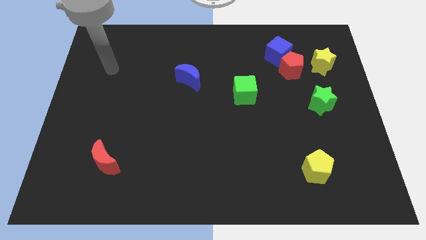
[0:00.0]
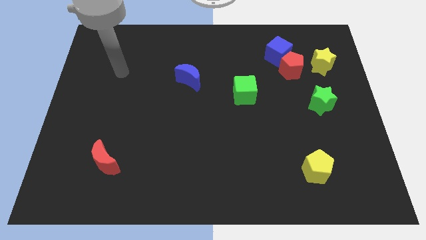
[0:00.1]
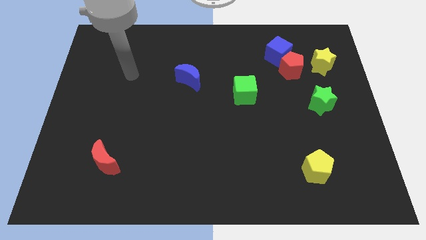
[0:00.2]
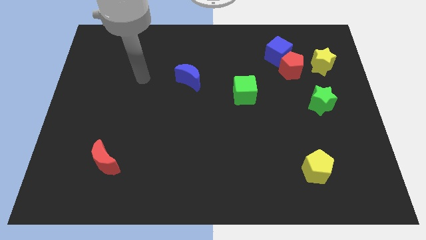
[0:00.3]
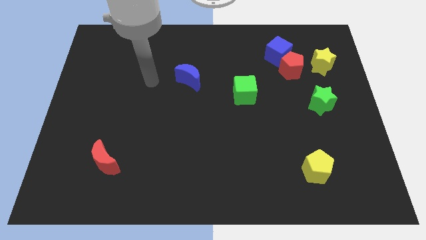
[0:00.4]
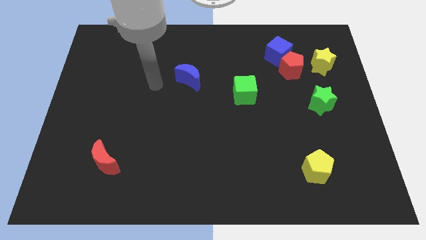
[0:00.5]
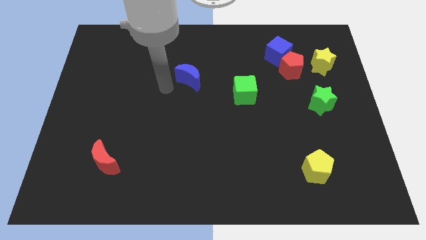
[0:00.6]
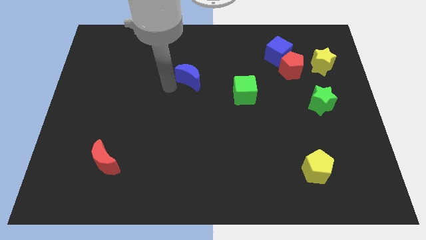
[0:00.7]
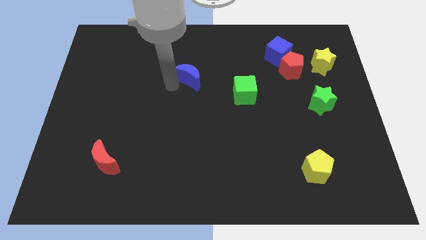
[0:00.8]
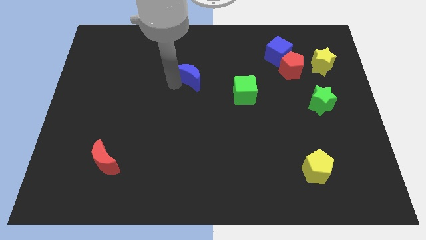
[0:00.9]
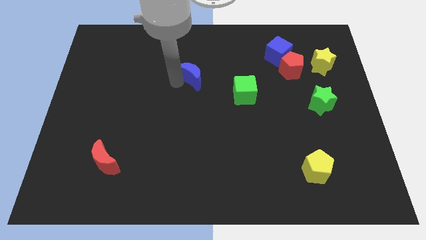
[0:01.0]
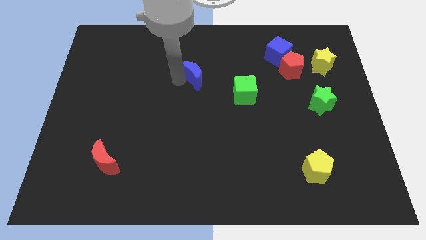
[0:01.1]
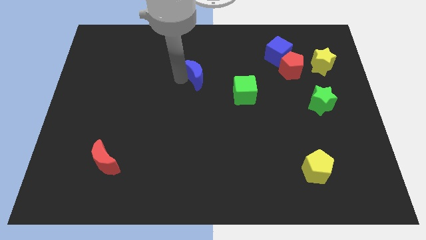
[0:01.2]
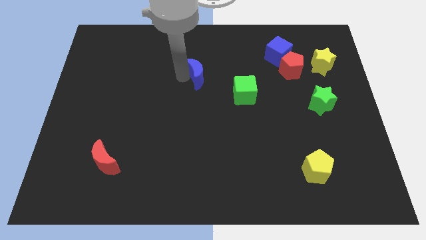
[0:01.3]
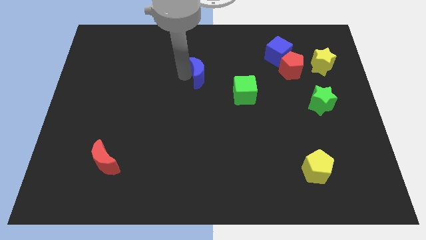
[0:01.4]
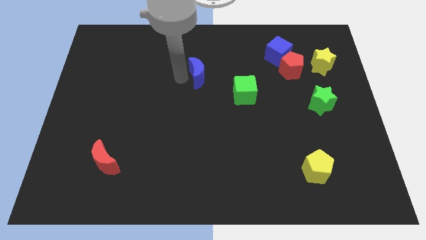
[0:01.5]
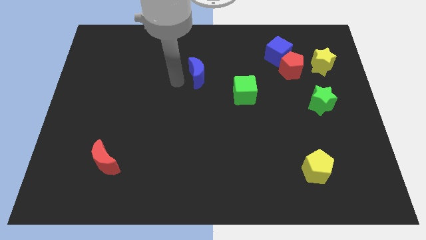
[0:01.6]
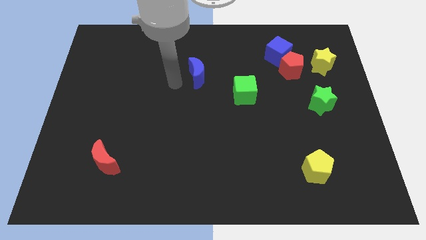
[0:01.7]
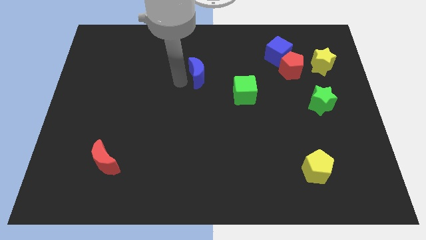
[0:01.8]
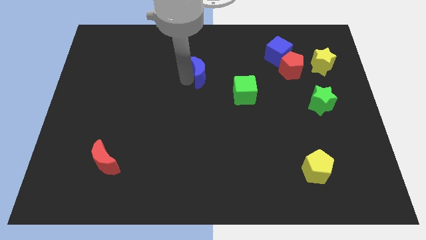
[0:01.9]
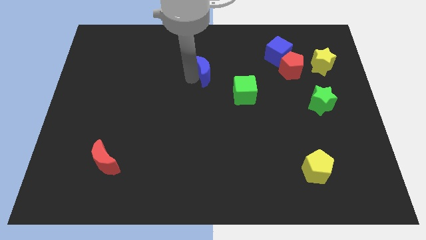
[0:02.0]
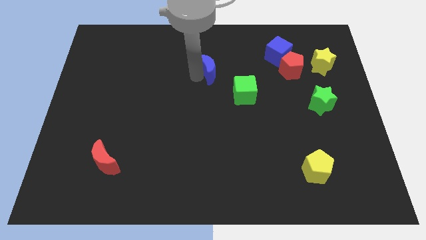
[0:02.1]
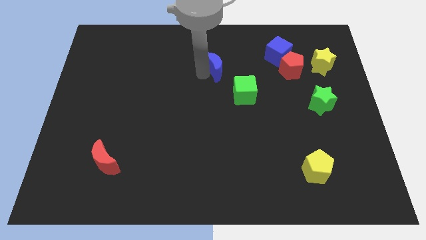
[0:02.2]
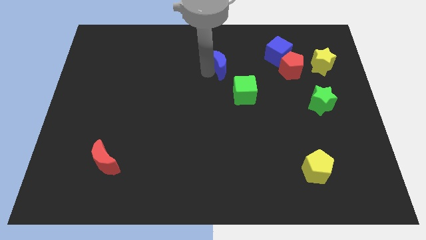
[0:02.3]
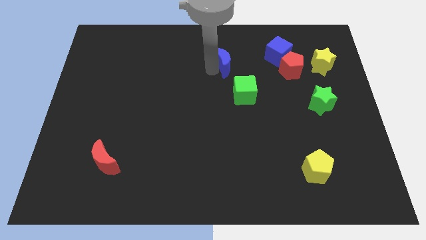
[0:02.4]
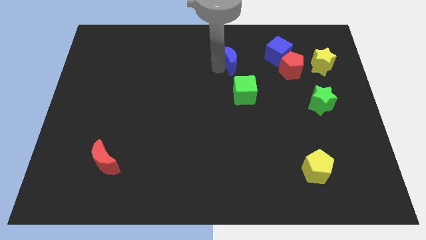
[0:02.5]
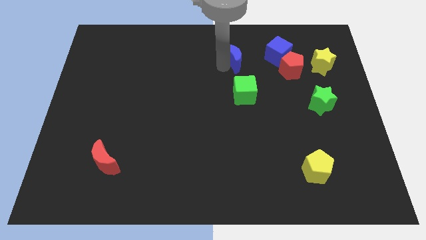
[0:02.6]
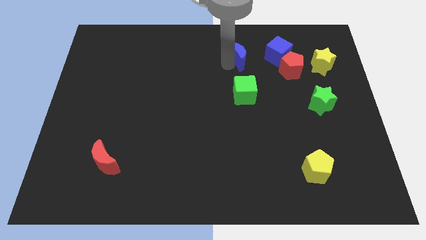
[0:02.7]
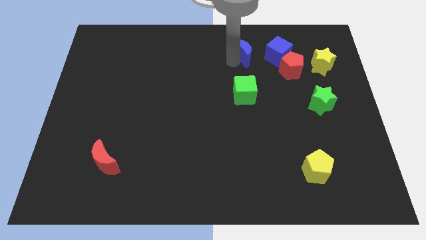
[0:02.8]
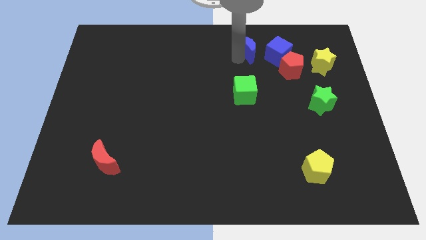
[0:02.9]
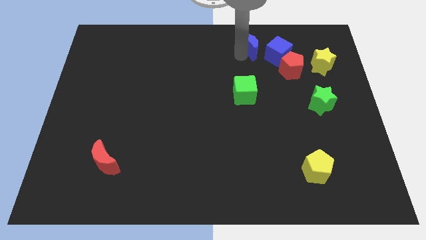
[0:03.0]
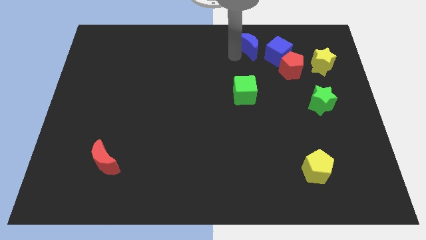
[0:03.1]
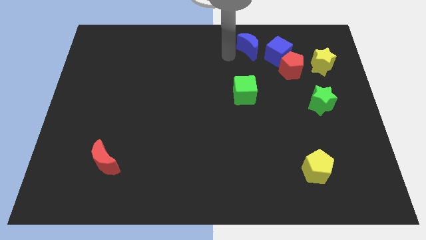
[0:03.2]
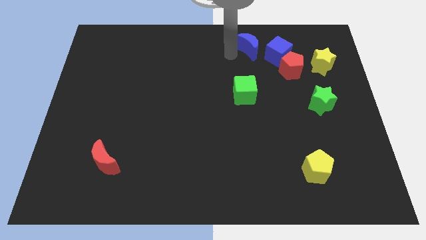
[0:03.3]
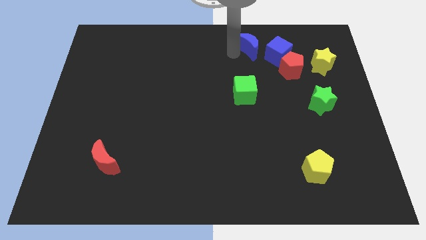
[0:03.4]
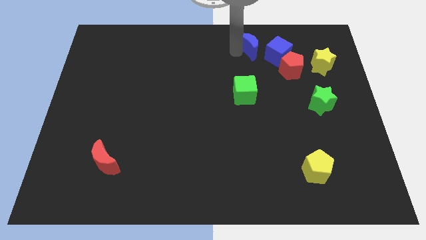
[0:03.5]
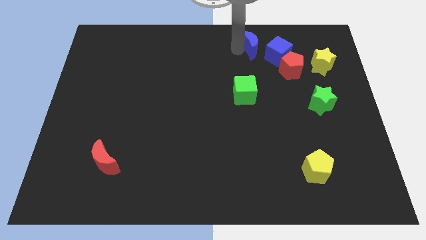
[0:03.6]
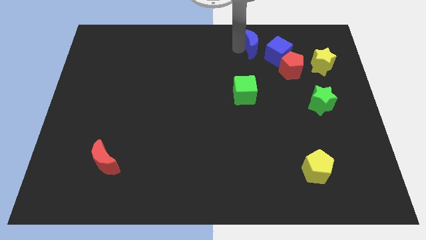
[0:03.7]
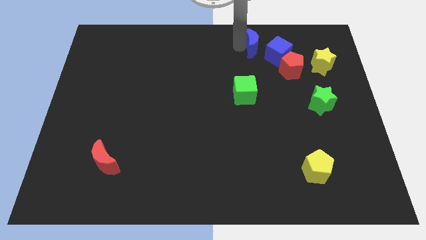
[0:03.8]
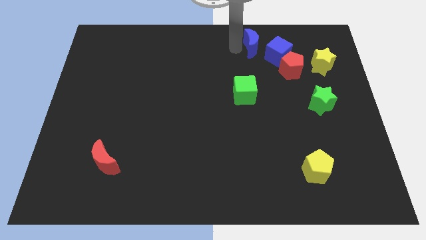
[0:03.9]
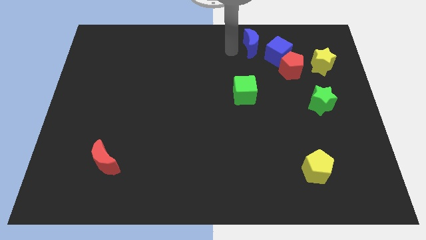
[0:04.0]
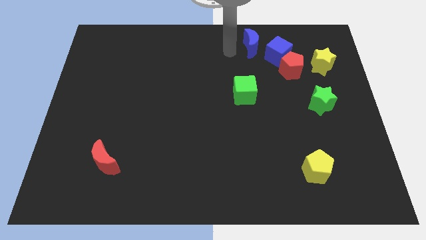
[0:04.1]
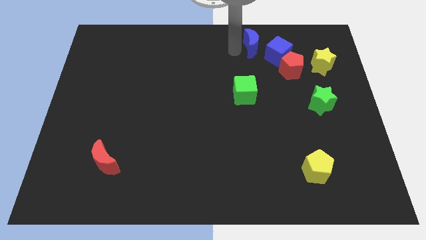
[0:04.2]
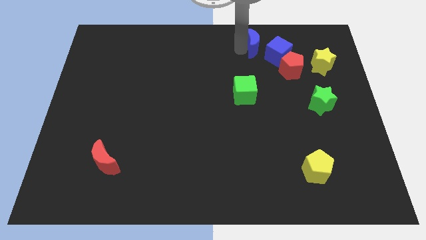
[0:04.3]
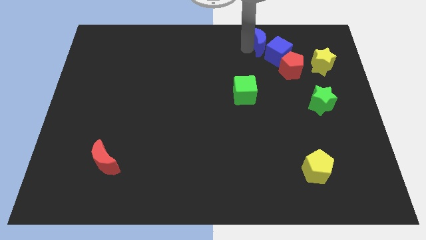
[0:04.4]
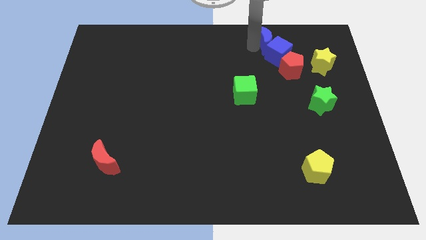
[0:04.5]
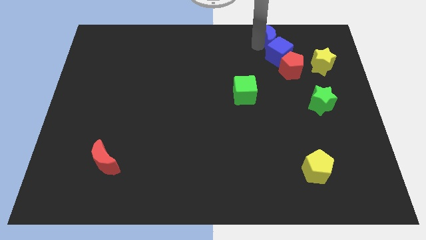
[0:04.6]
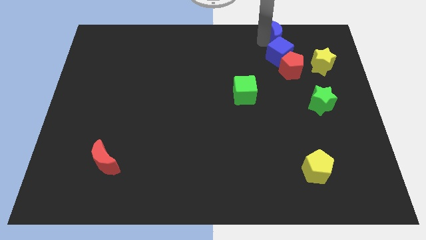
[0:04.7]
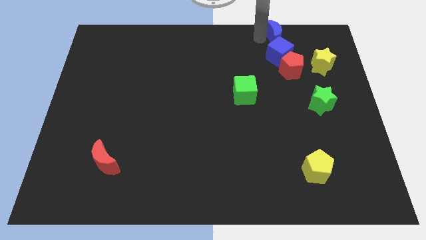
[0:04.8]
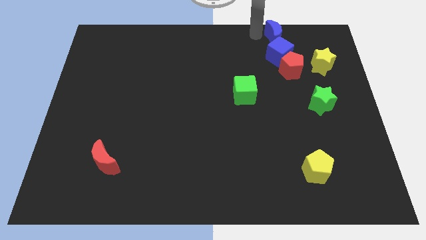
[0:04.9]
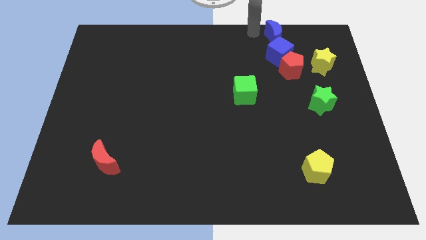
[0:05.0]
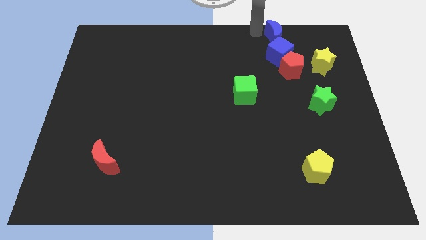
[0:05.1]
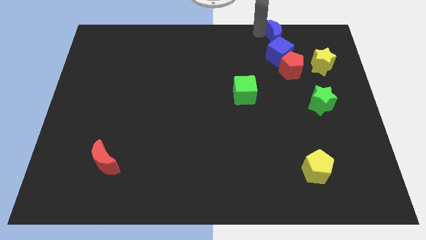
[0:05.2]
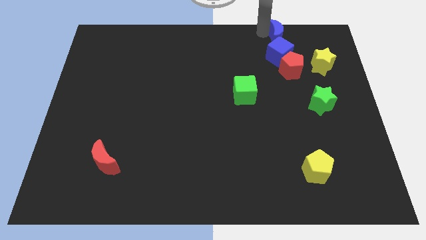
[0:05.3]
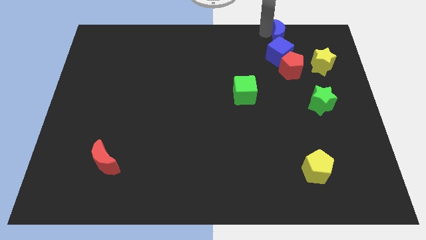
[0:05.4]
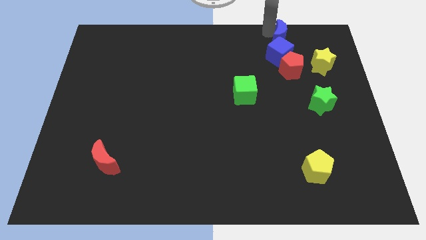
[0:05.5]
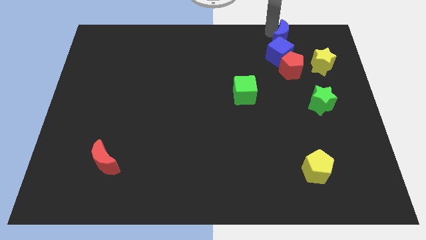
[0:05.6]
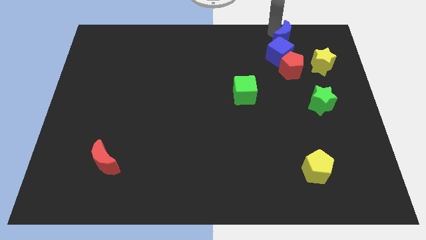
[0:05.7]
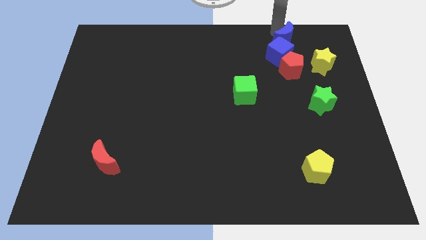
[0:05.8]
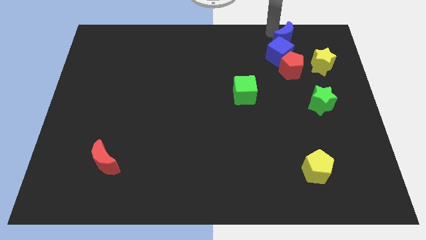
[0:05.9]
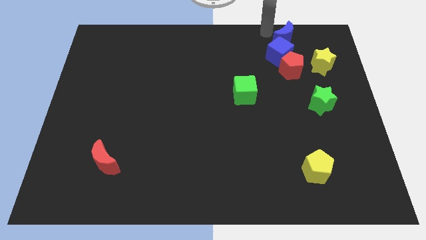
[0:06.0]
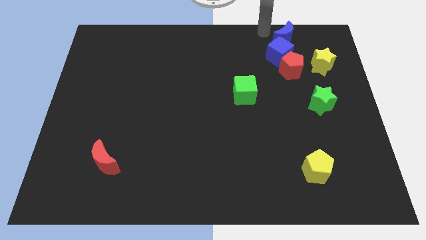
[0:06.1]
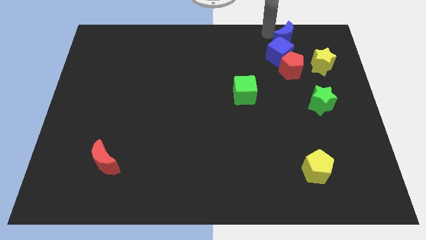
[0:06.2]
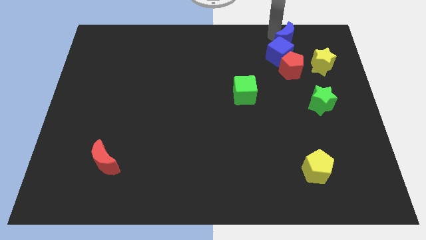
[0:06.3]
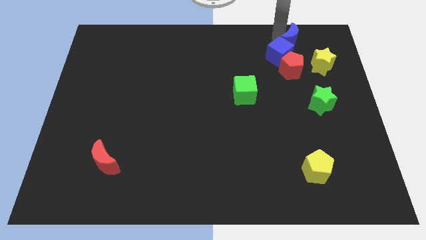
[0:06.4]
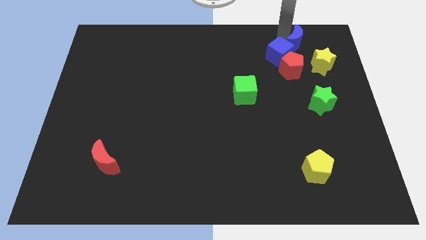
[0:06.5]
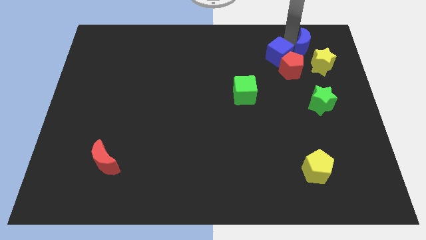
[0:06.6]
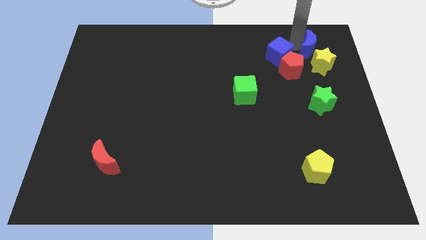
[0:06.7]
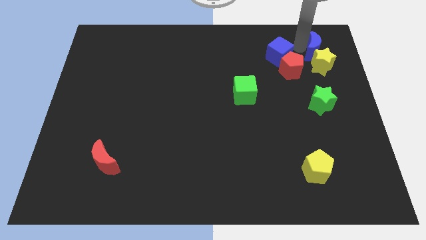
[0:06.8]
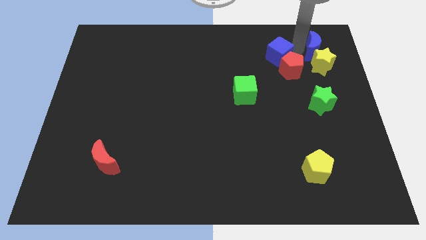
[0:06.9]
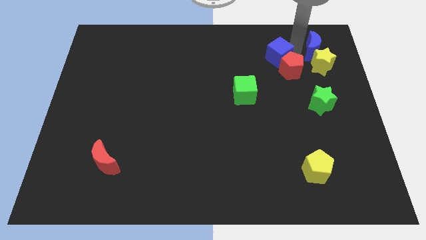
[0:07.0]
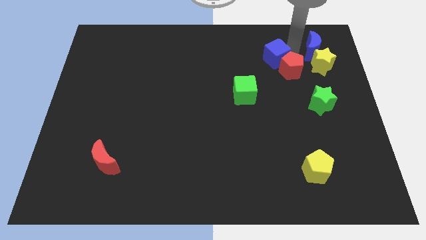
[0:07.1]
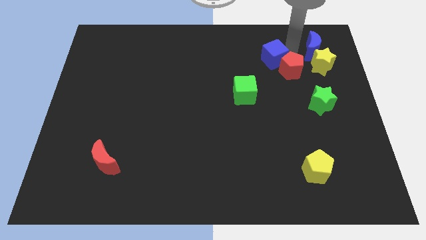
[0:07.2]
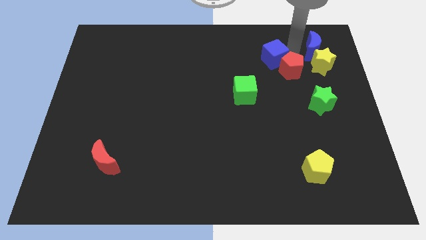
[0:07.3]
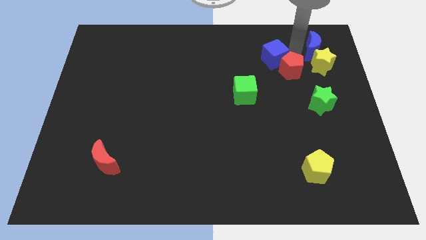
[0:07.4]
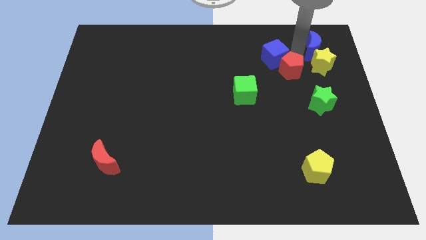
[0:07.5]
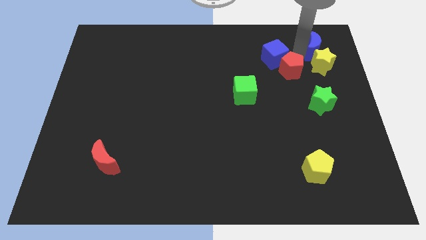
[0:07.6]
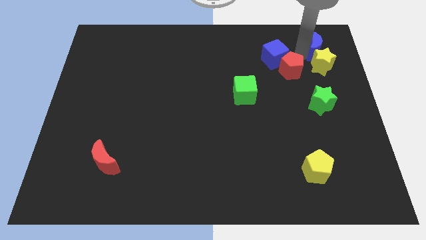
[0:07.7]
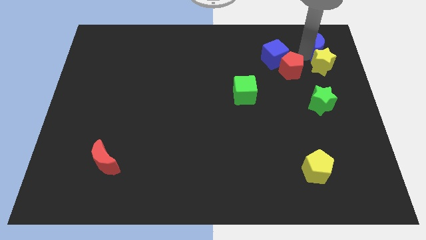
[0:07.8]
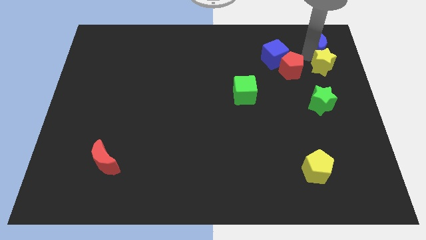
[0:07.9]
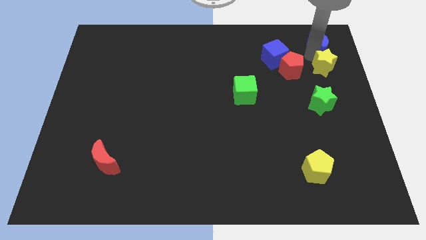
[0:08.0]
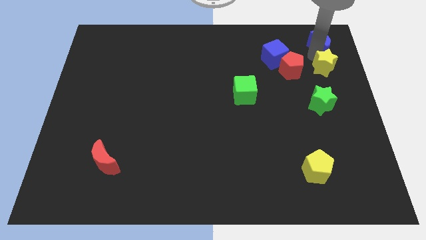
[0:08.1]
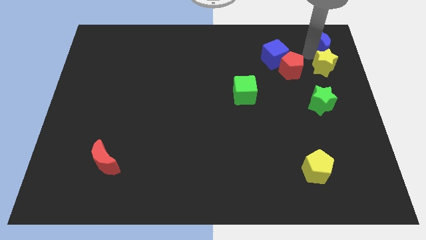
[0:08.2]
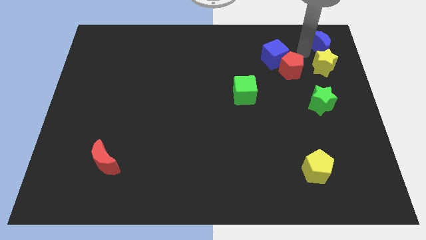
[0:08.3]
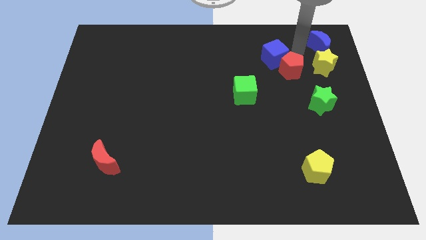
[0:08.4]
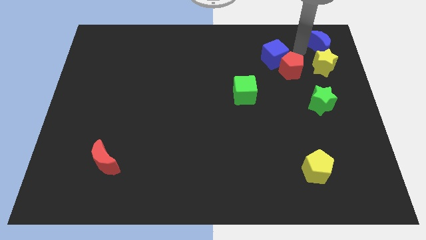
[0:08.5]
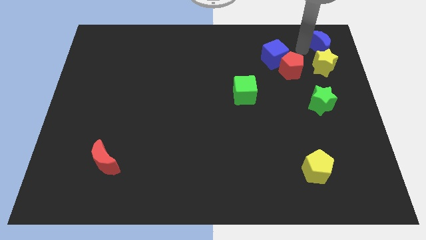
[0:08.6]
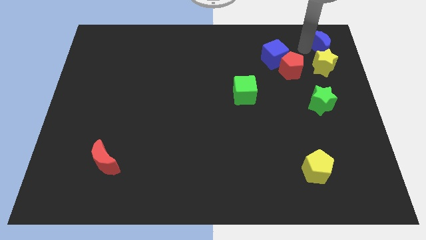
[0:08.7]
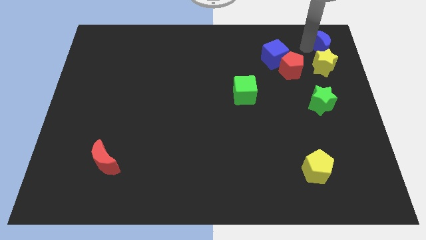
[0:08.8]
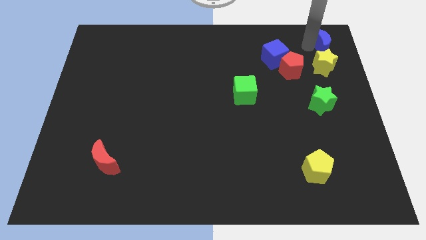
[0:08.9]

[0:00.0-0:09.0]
push the blue moon to the top right of the board
